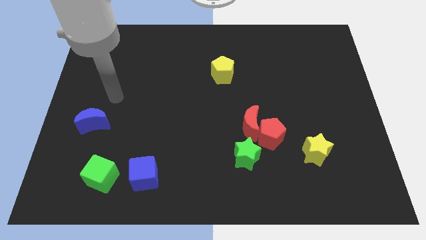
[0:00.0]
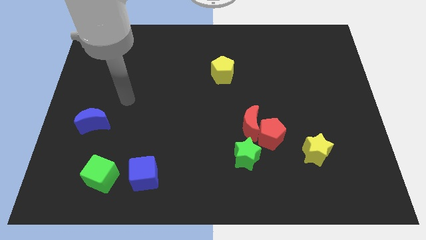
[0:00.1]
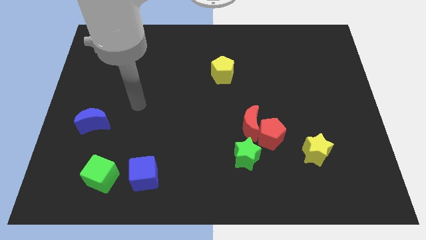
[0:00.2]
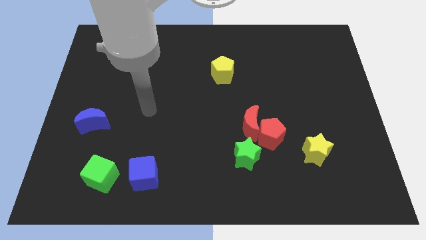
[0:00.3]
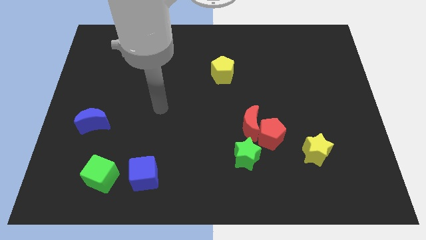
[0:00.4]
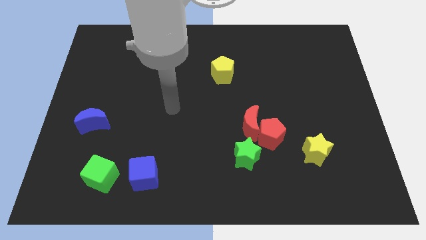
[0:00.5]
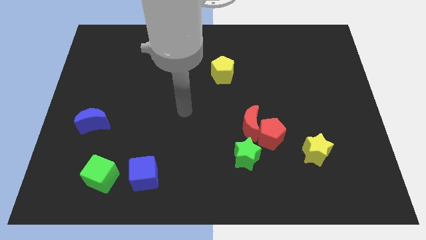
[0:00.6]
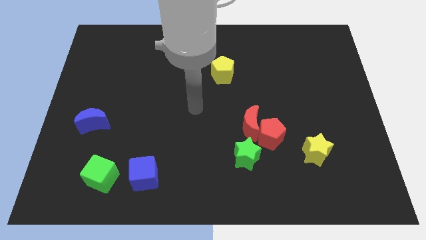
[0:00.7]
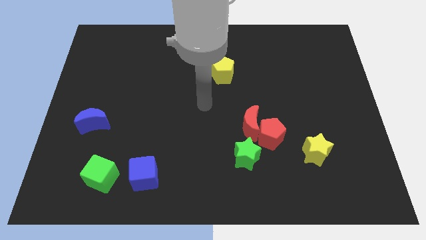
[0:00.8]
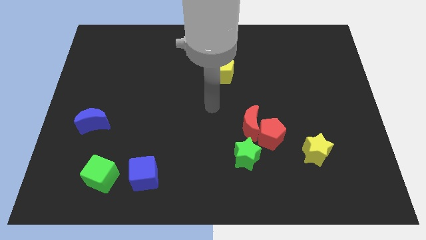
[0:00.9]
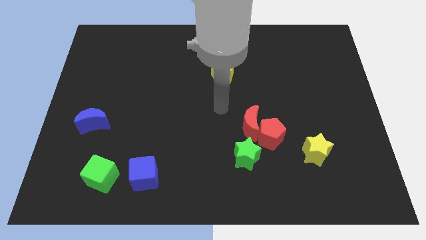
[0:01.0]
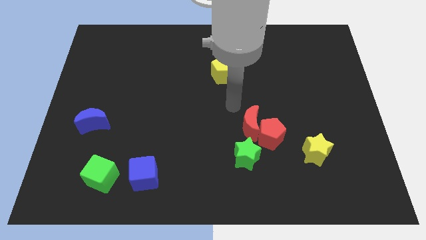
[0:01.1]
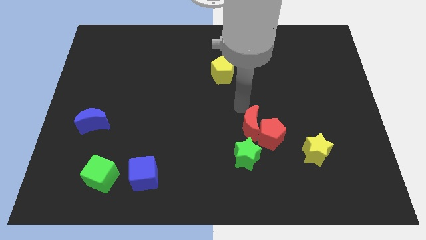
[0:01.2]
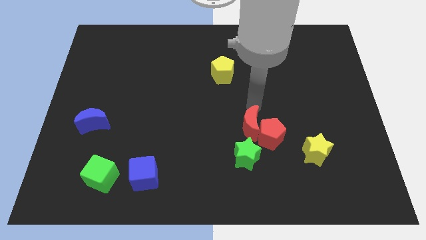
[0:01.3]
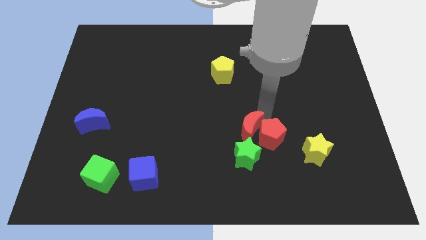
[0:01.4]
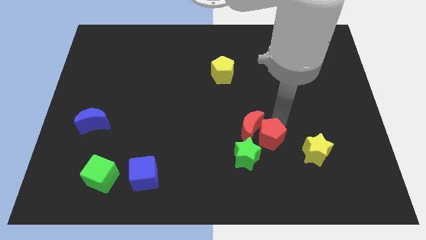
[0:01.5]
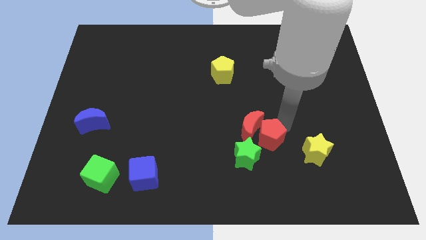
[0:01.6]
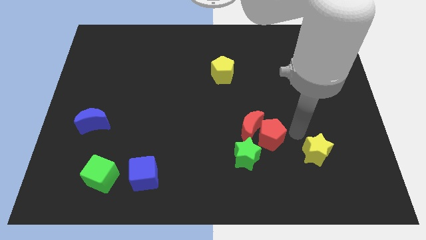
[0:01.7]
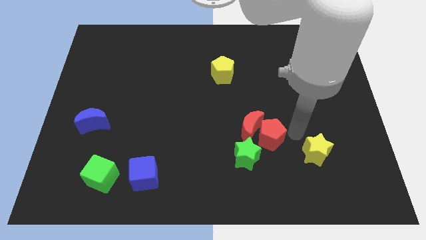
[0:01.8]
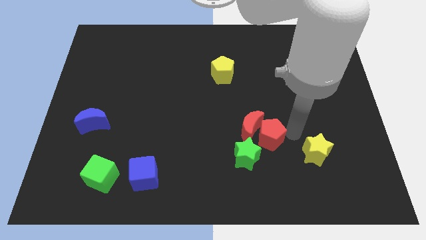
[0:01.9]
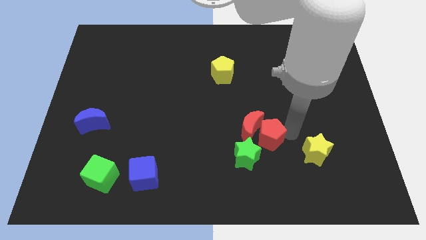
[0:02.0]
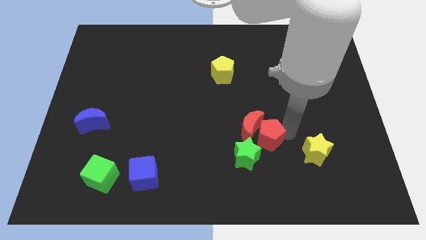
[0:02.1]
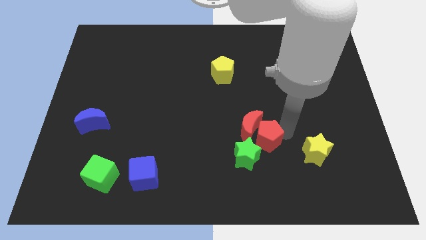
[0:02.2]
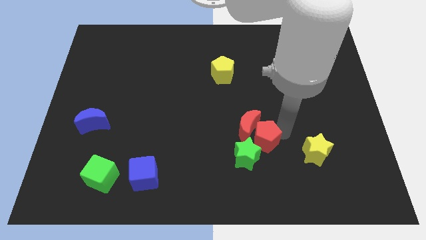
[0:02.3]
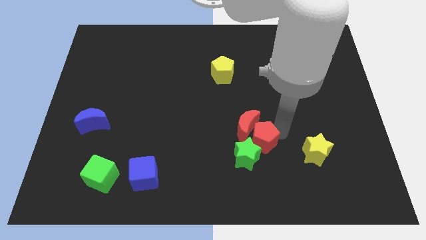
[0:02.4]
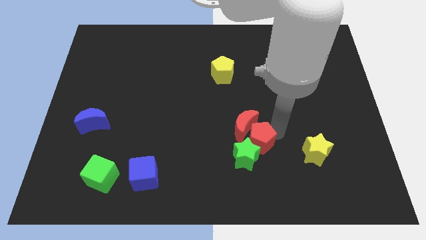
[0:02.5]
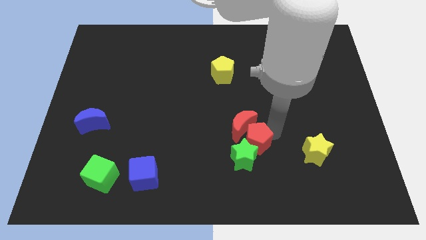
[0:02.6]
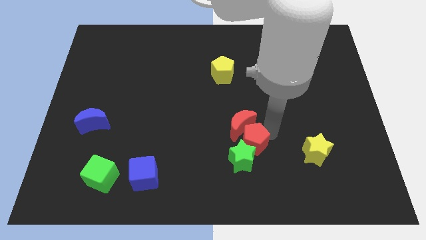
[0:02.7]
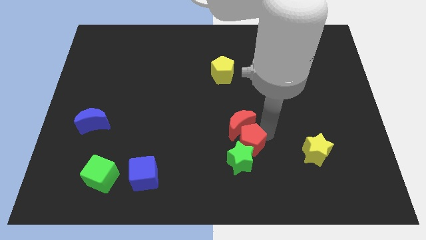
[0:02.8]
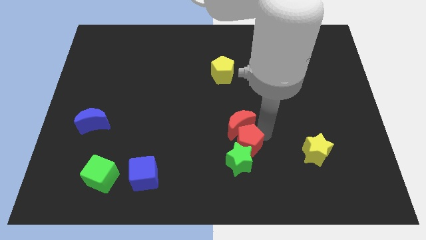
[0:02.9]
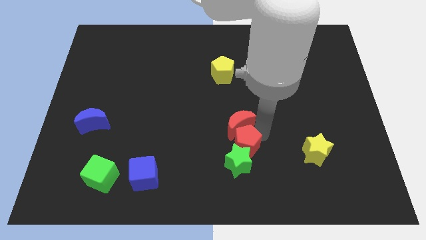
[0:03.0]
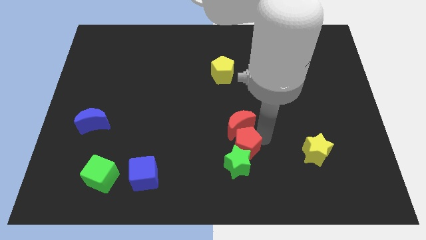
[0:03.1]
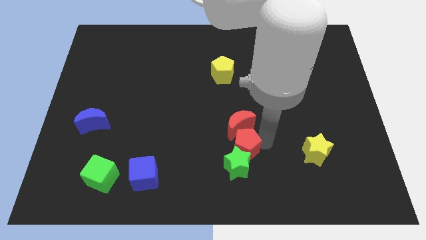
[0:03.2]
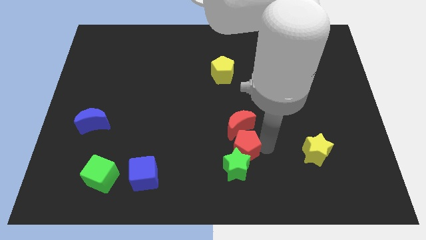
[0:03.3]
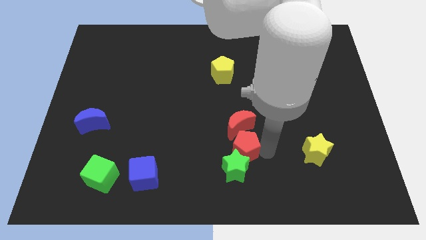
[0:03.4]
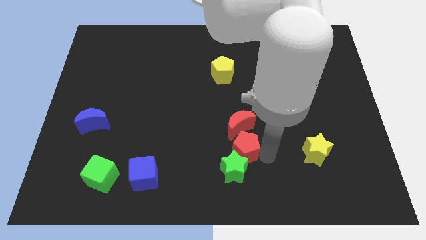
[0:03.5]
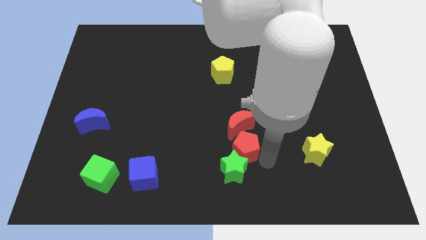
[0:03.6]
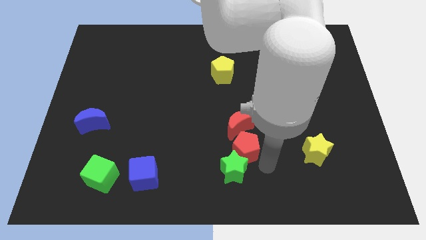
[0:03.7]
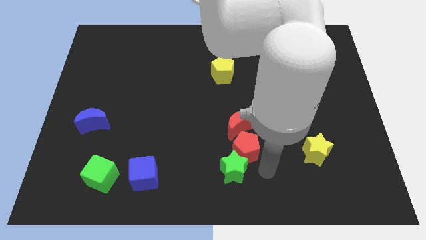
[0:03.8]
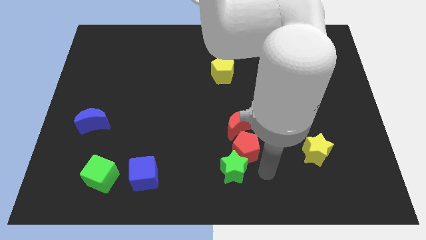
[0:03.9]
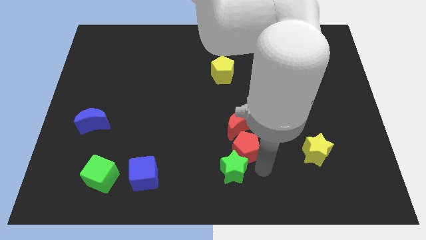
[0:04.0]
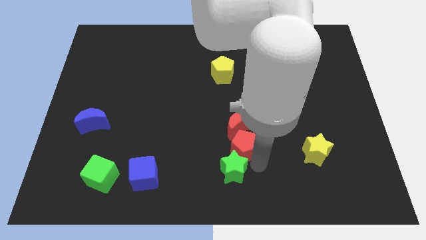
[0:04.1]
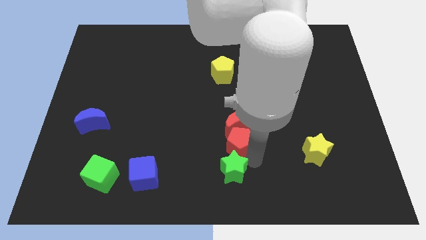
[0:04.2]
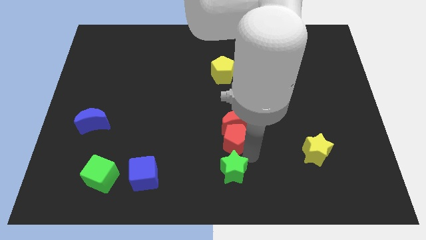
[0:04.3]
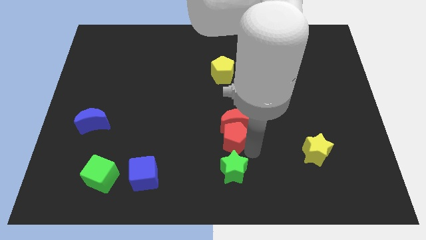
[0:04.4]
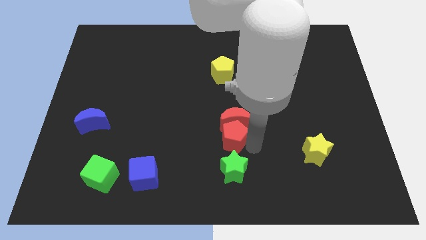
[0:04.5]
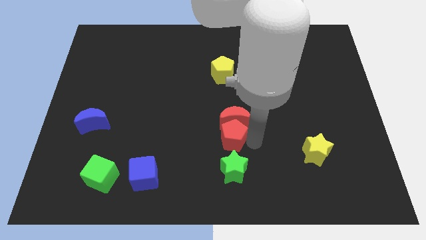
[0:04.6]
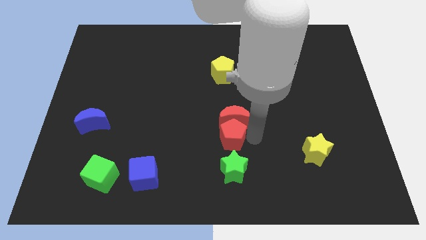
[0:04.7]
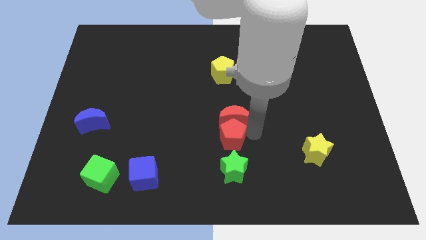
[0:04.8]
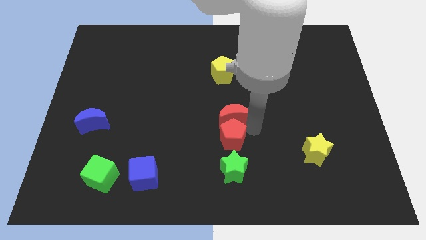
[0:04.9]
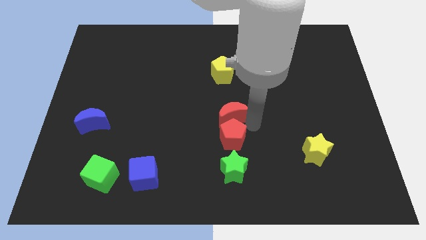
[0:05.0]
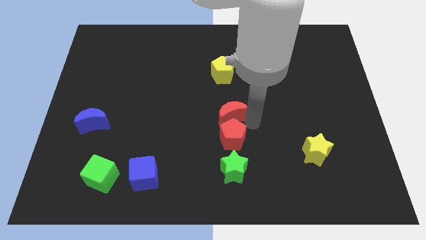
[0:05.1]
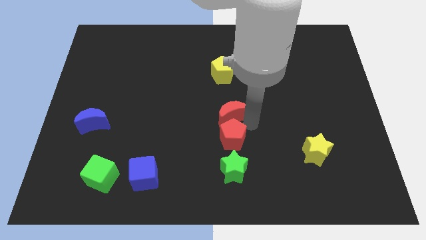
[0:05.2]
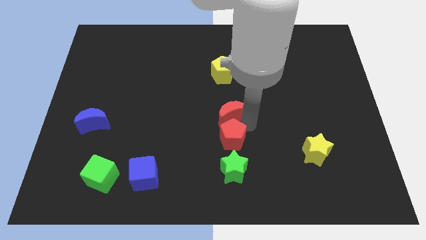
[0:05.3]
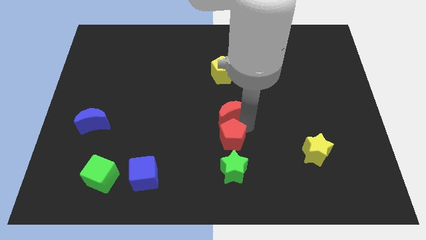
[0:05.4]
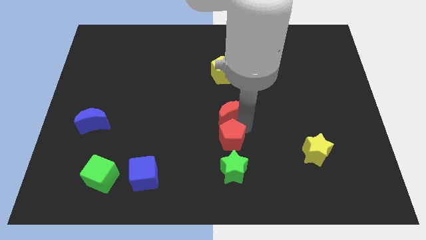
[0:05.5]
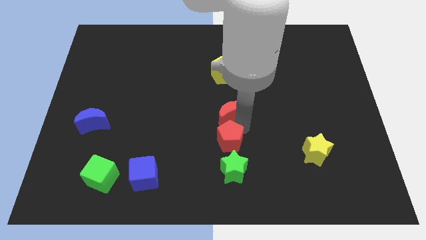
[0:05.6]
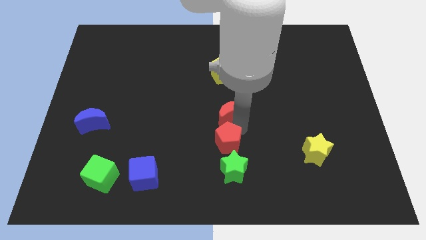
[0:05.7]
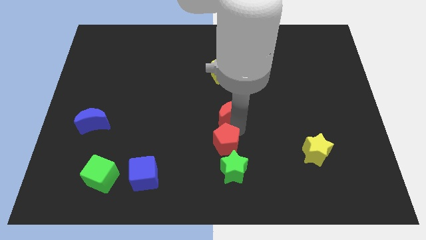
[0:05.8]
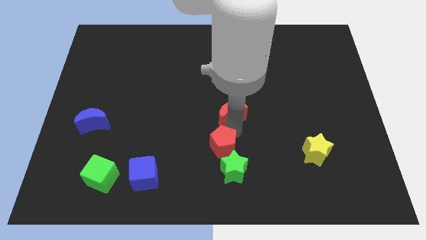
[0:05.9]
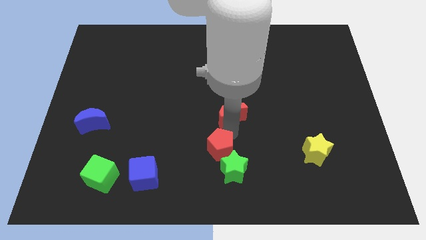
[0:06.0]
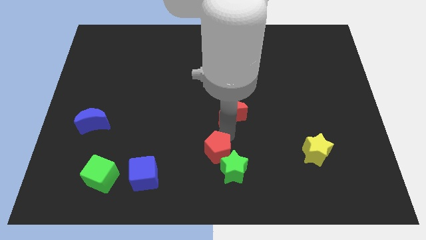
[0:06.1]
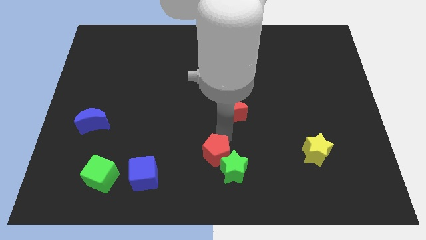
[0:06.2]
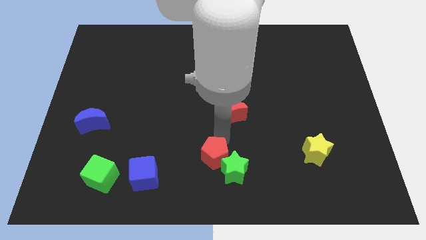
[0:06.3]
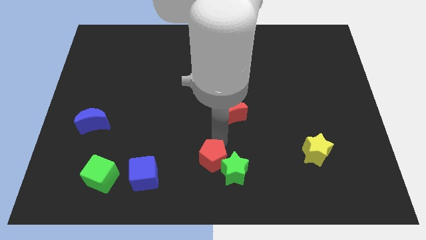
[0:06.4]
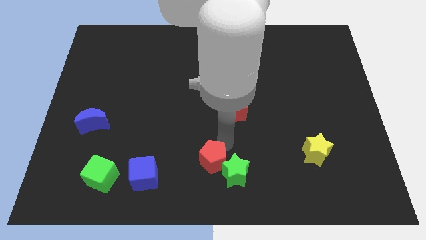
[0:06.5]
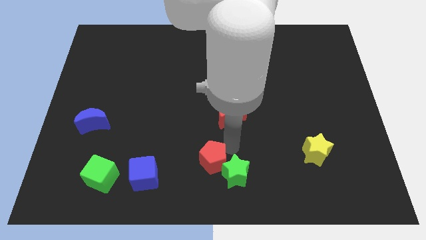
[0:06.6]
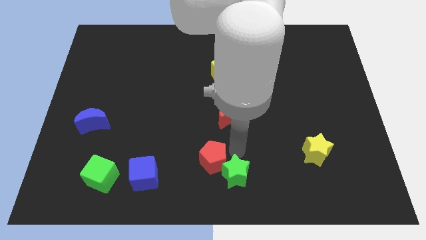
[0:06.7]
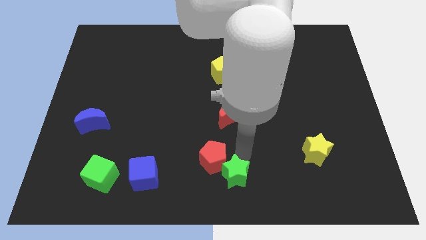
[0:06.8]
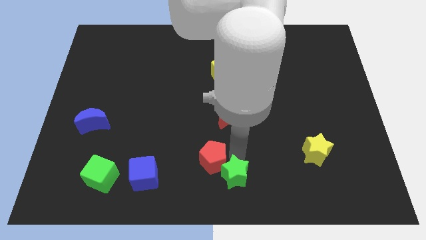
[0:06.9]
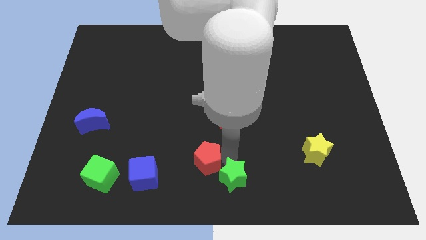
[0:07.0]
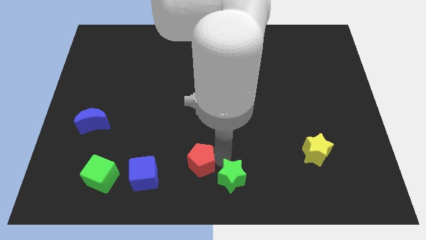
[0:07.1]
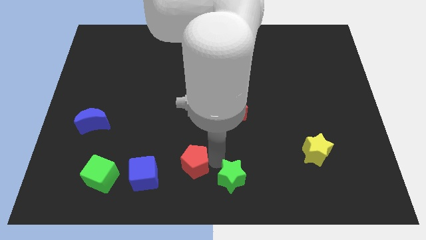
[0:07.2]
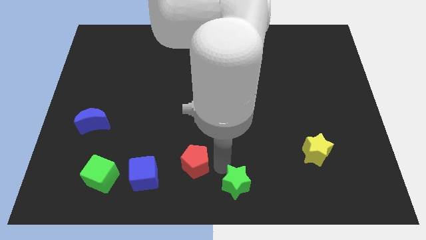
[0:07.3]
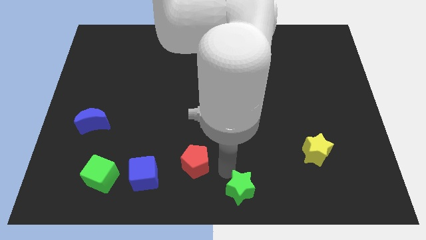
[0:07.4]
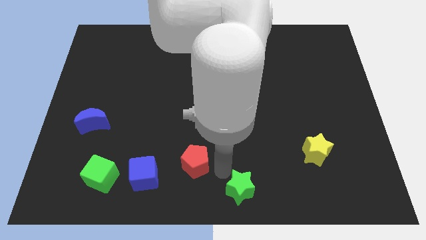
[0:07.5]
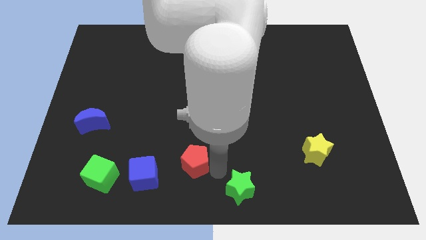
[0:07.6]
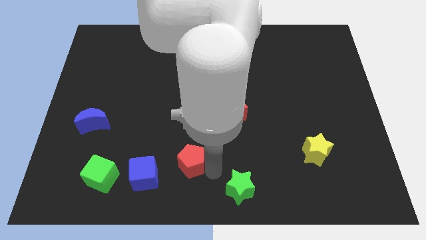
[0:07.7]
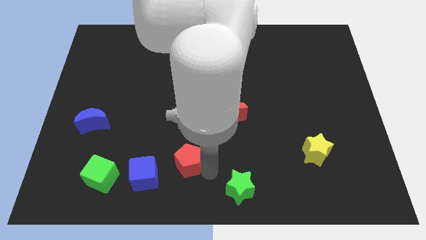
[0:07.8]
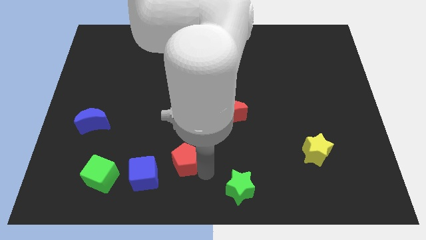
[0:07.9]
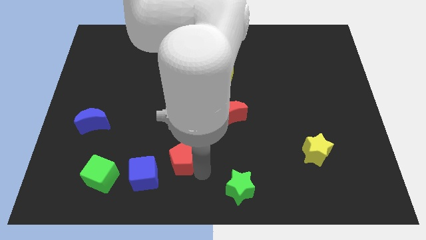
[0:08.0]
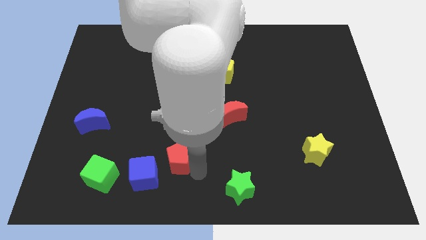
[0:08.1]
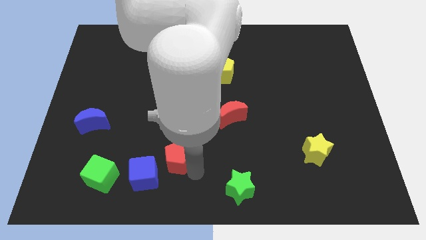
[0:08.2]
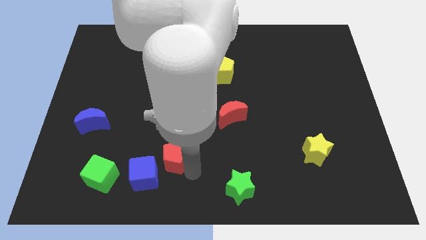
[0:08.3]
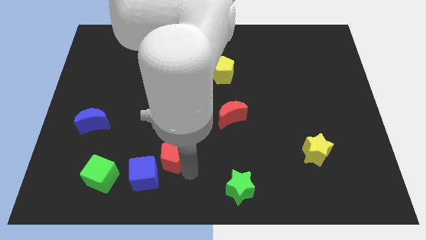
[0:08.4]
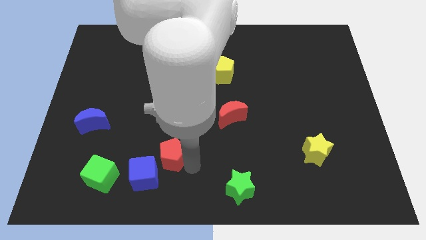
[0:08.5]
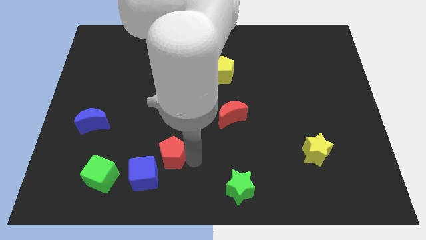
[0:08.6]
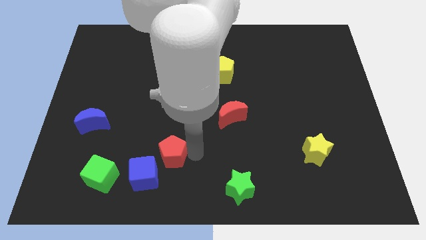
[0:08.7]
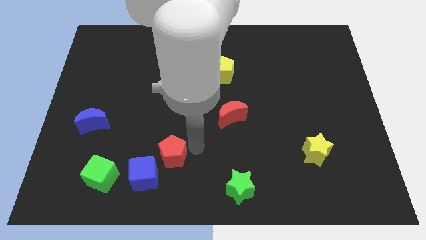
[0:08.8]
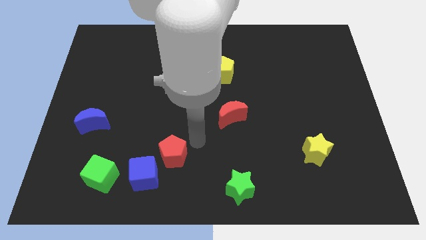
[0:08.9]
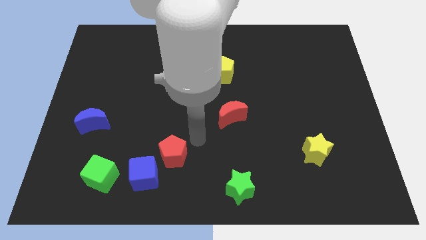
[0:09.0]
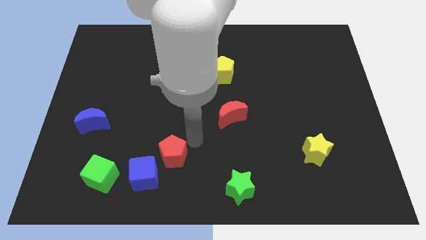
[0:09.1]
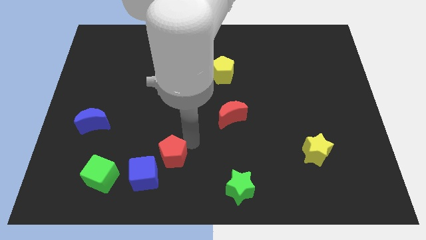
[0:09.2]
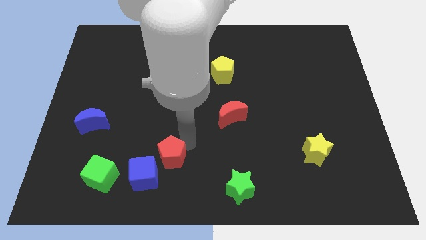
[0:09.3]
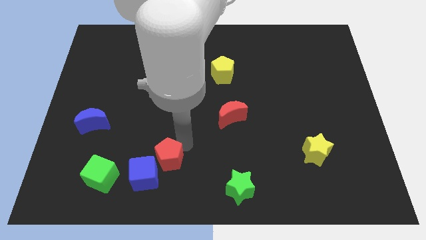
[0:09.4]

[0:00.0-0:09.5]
put the red pentagon towards the blue cube
